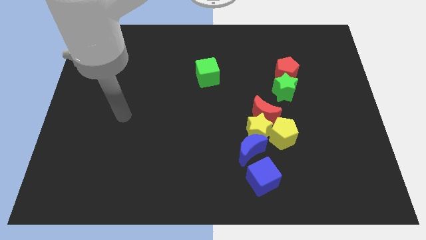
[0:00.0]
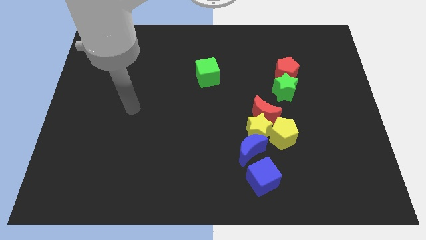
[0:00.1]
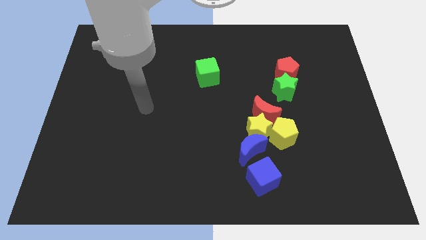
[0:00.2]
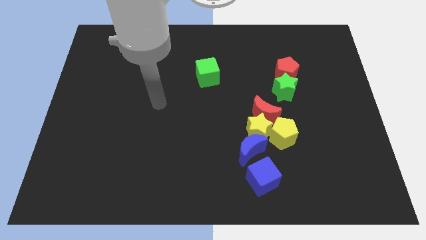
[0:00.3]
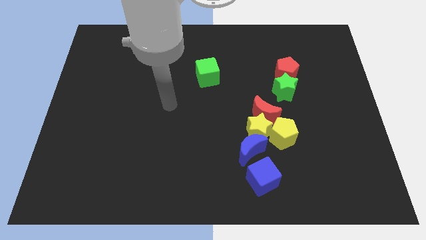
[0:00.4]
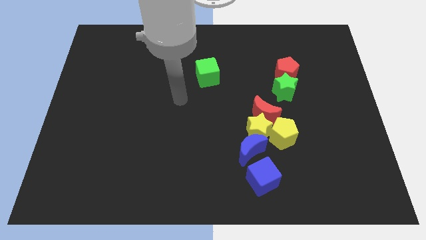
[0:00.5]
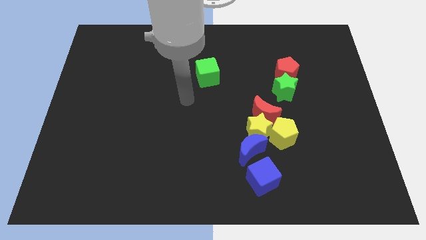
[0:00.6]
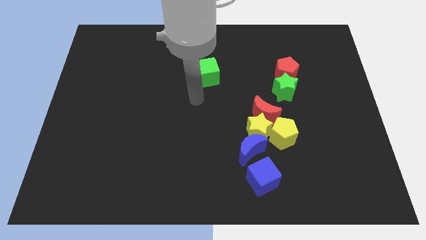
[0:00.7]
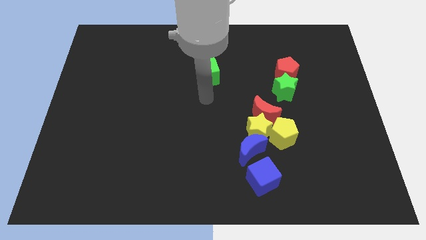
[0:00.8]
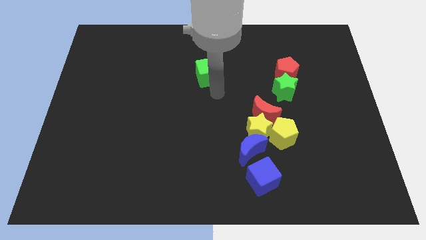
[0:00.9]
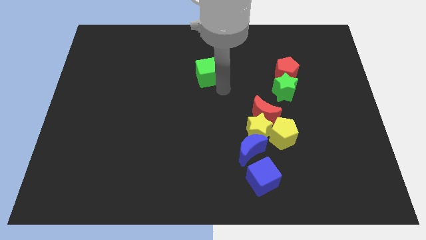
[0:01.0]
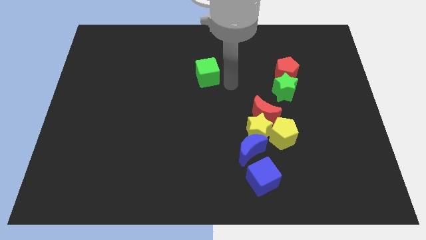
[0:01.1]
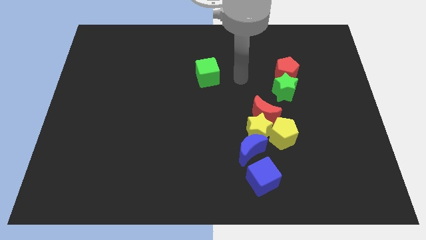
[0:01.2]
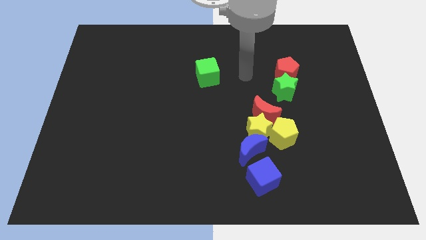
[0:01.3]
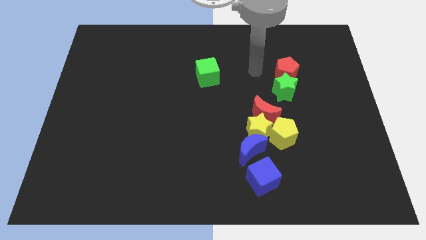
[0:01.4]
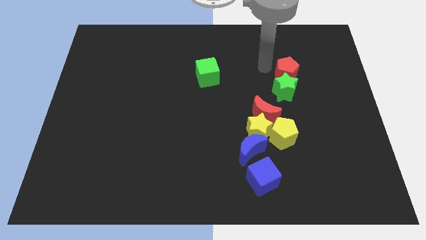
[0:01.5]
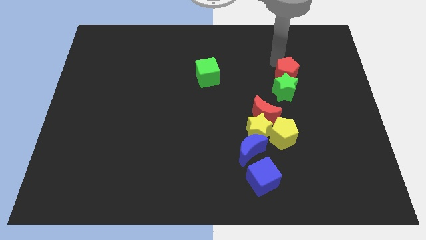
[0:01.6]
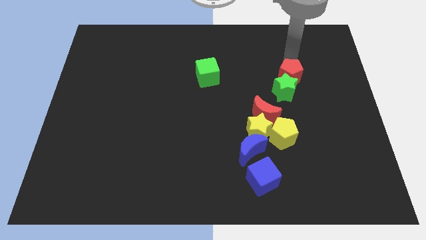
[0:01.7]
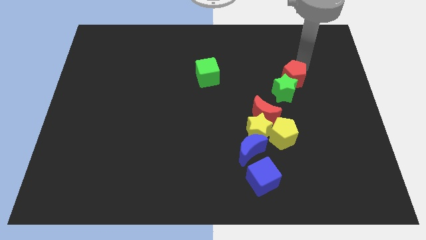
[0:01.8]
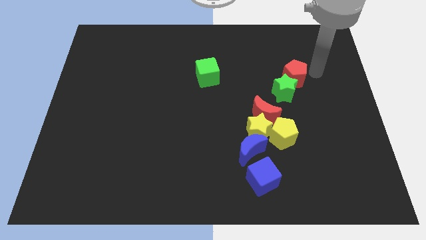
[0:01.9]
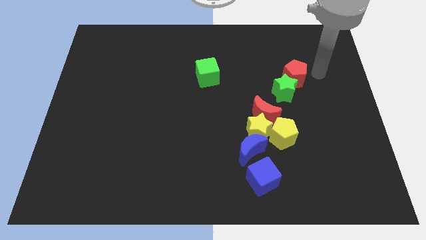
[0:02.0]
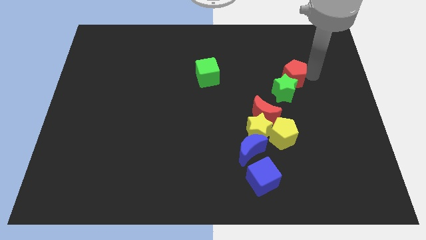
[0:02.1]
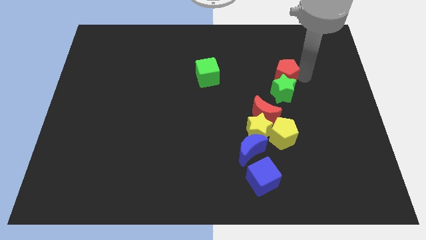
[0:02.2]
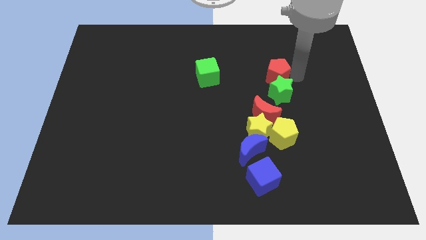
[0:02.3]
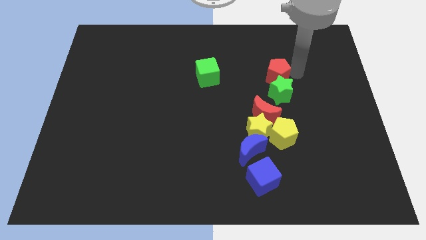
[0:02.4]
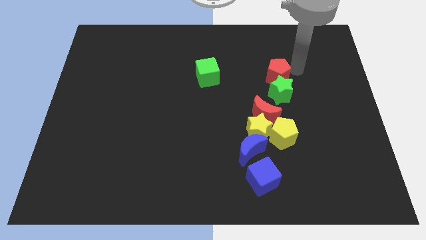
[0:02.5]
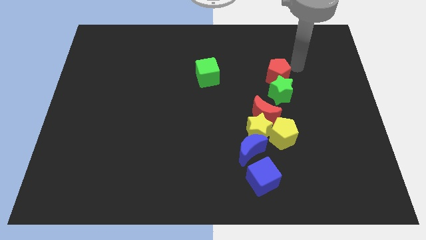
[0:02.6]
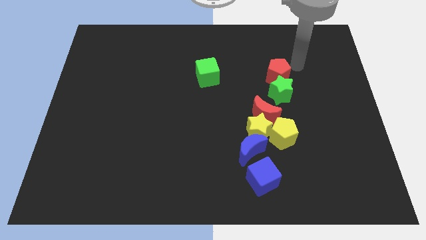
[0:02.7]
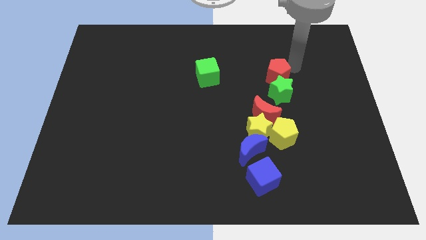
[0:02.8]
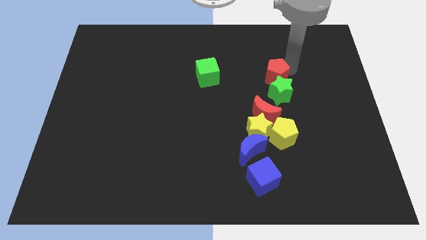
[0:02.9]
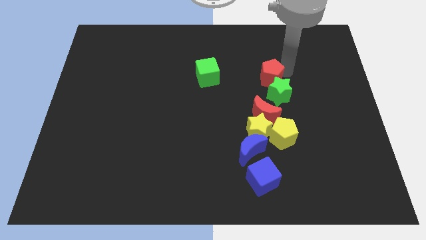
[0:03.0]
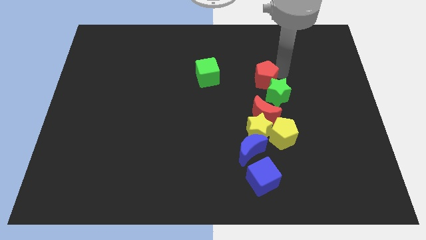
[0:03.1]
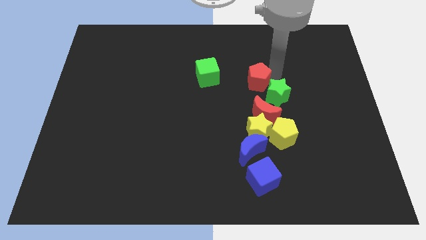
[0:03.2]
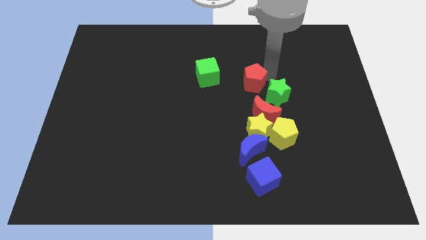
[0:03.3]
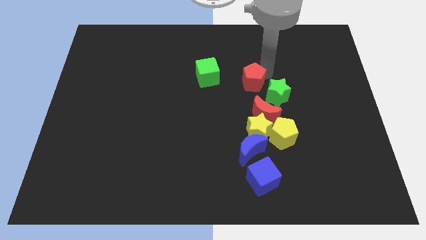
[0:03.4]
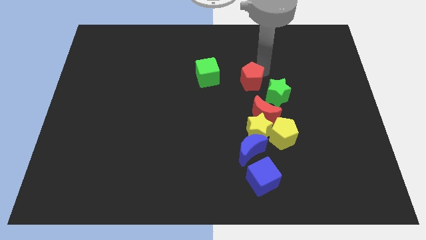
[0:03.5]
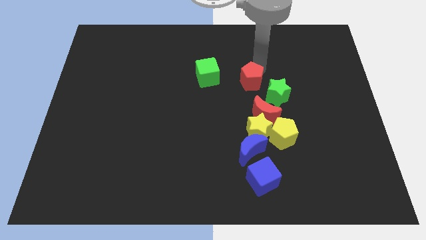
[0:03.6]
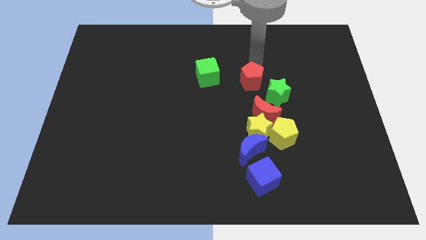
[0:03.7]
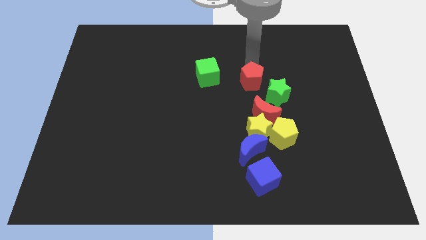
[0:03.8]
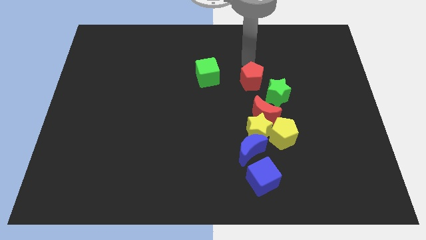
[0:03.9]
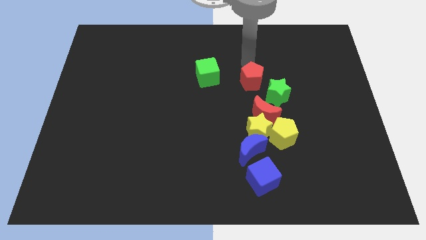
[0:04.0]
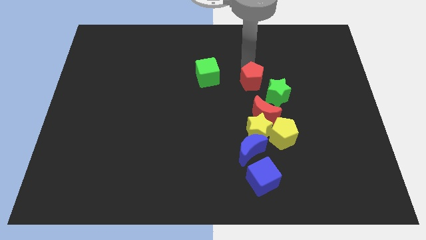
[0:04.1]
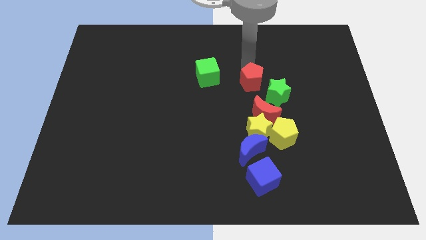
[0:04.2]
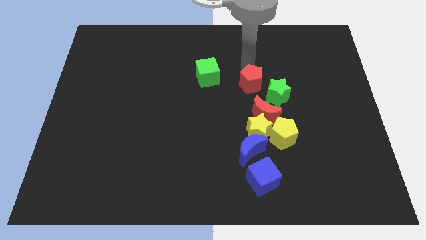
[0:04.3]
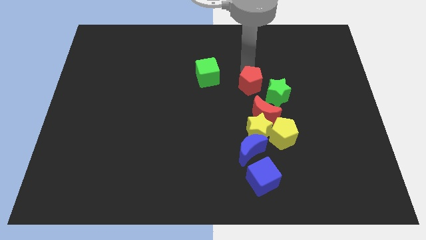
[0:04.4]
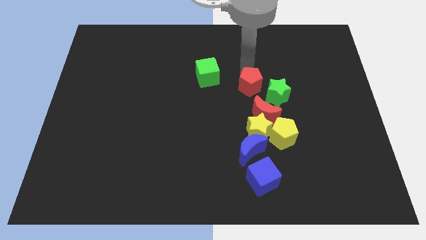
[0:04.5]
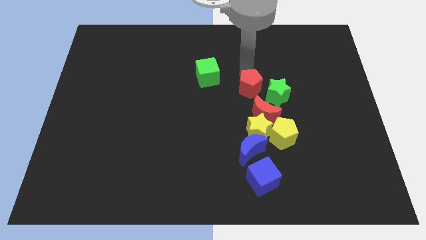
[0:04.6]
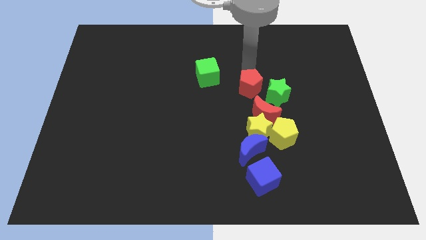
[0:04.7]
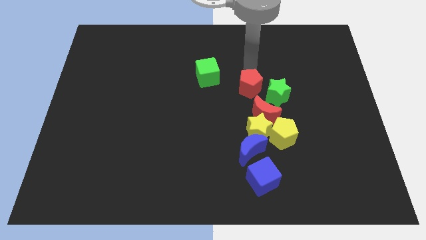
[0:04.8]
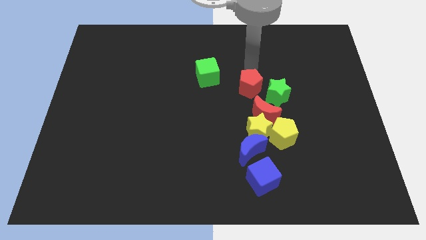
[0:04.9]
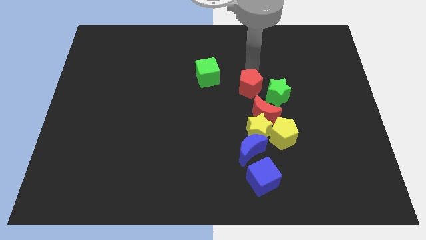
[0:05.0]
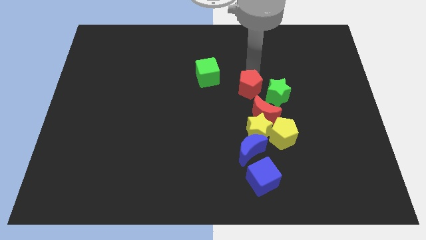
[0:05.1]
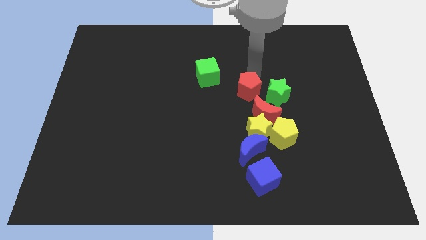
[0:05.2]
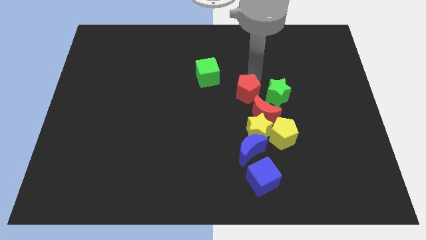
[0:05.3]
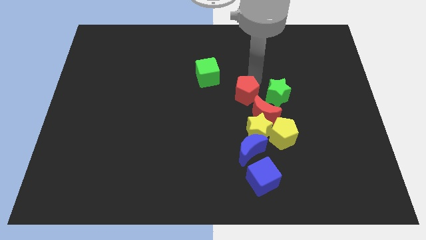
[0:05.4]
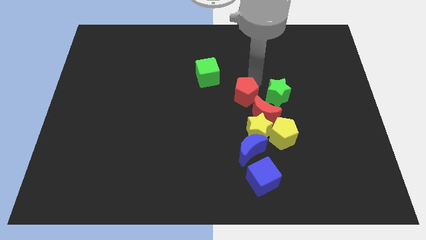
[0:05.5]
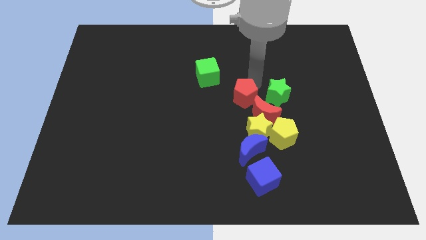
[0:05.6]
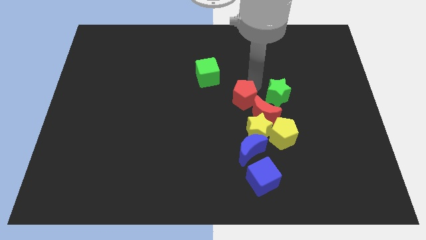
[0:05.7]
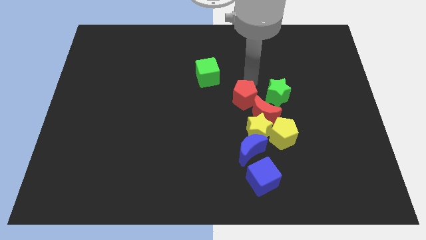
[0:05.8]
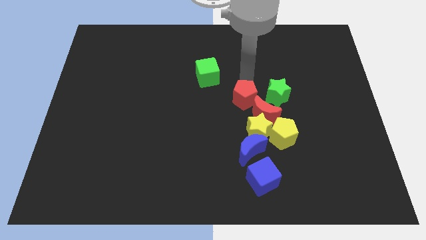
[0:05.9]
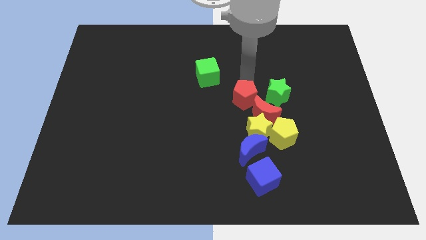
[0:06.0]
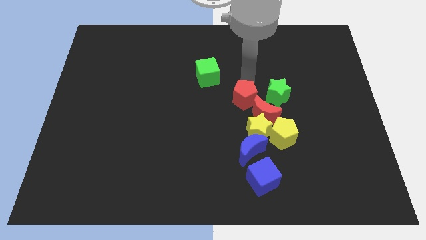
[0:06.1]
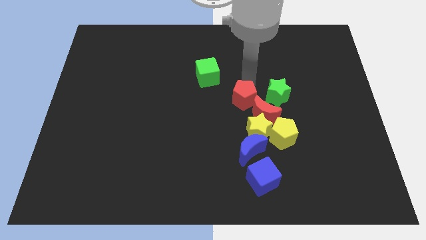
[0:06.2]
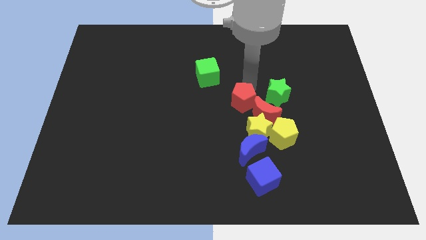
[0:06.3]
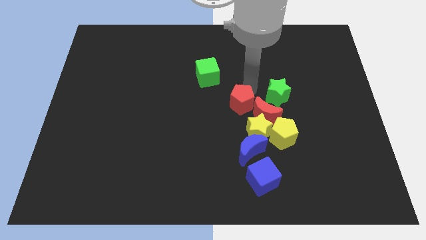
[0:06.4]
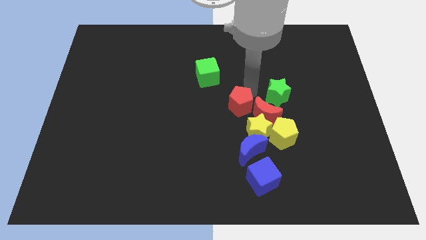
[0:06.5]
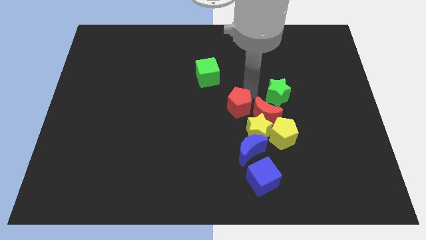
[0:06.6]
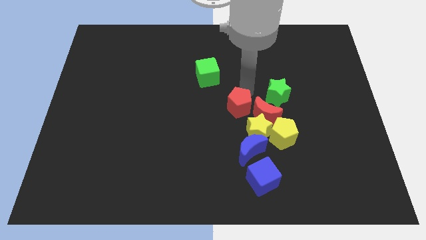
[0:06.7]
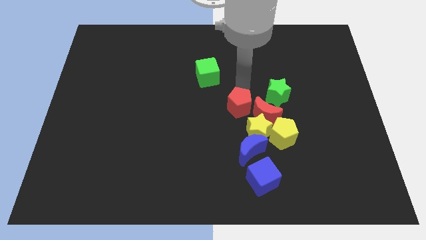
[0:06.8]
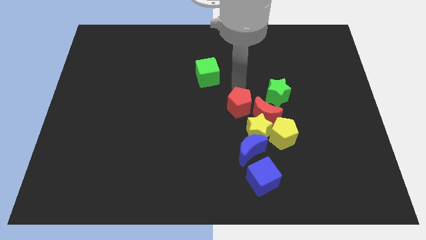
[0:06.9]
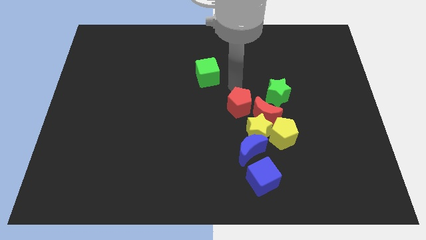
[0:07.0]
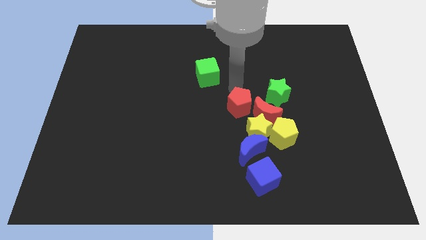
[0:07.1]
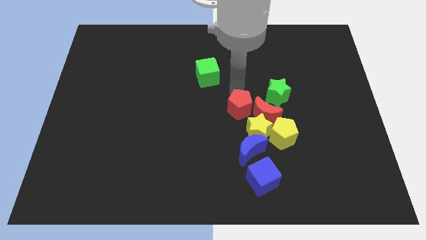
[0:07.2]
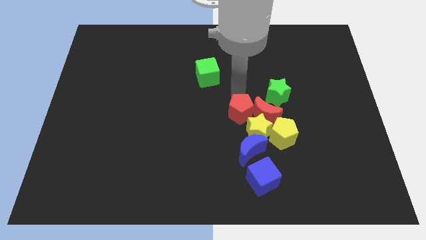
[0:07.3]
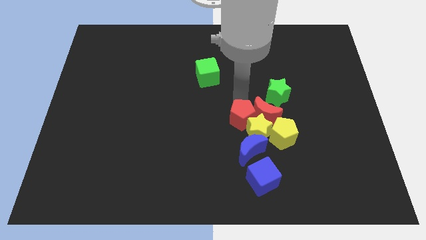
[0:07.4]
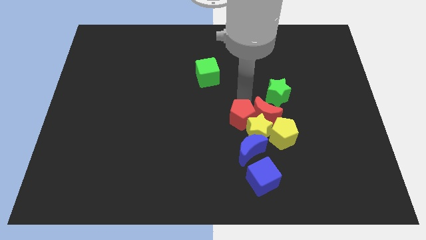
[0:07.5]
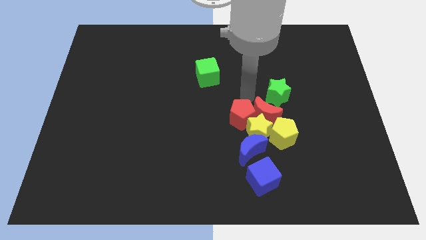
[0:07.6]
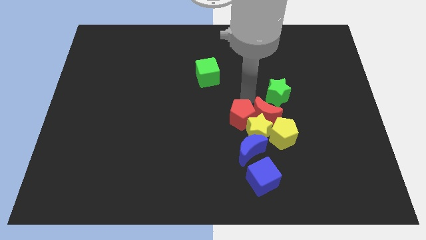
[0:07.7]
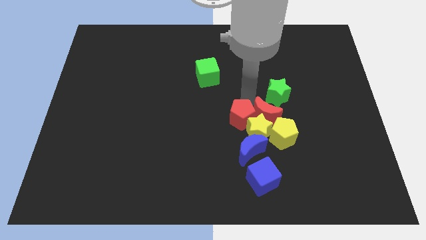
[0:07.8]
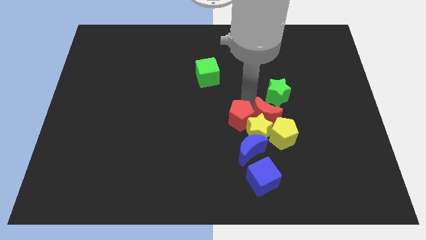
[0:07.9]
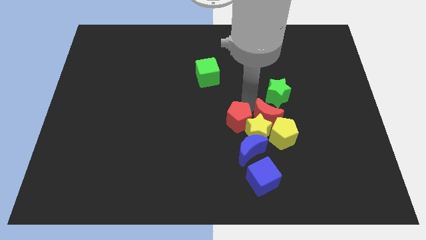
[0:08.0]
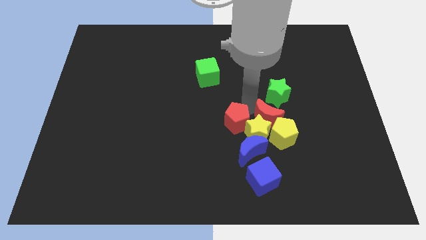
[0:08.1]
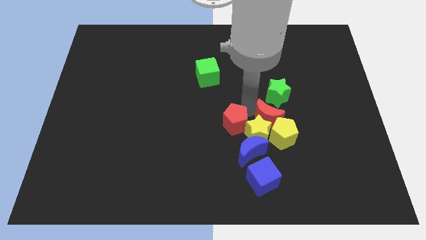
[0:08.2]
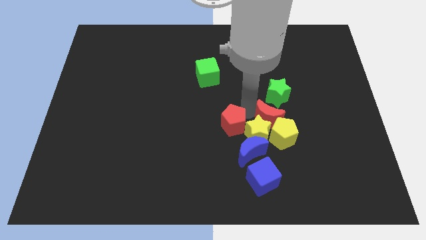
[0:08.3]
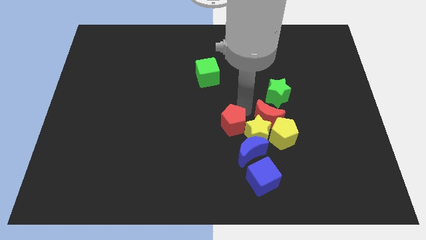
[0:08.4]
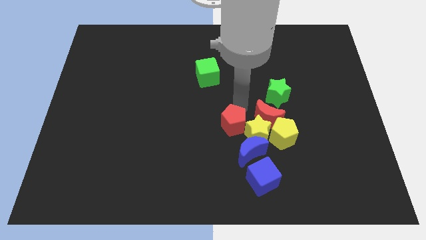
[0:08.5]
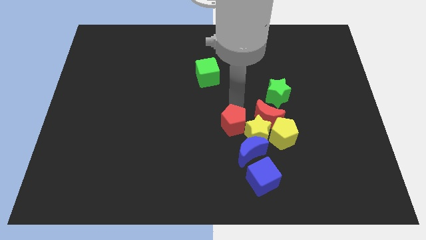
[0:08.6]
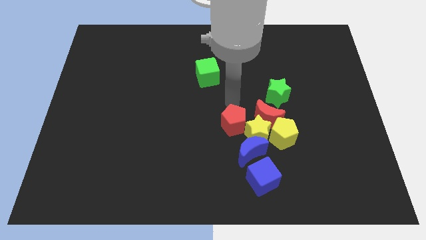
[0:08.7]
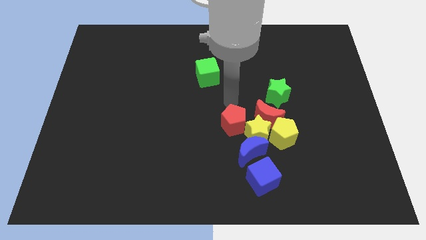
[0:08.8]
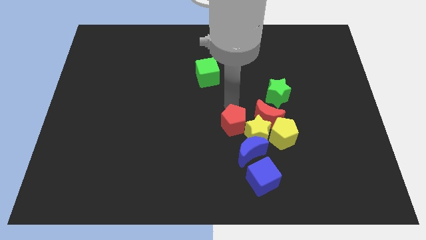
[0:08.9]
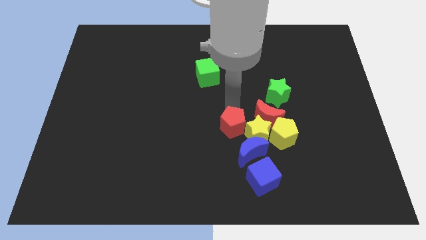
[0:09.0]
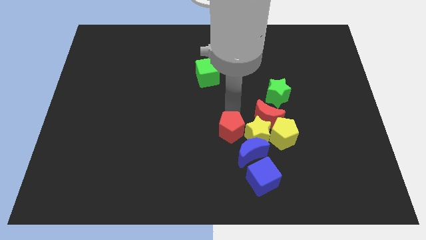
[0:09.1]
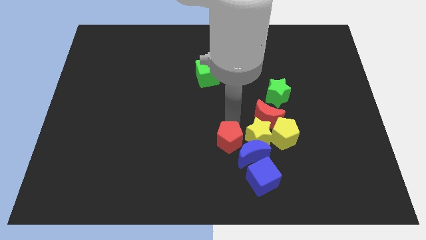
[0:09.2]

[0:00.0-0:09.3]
push the red pentagon to the bottom left of the yellow star
